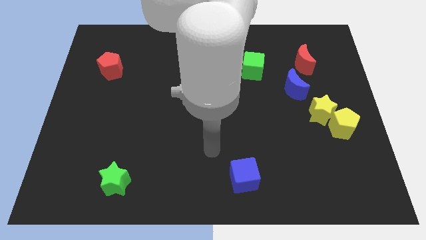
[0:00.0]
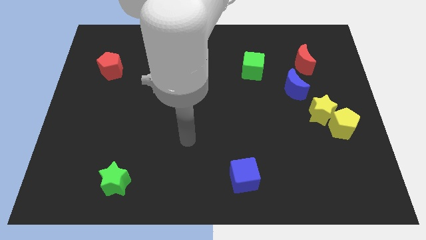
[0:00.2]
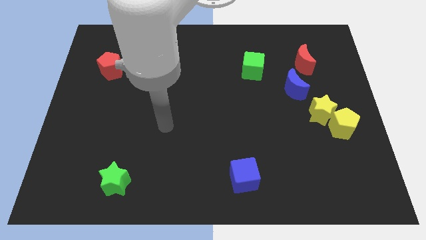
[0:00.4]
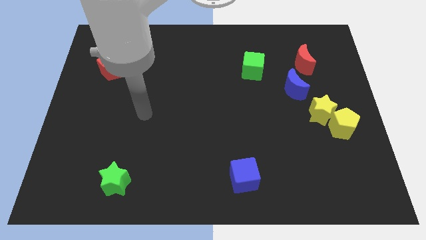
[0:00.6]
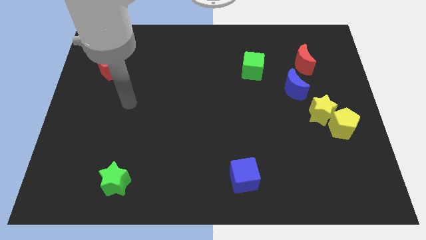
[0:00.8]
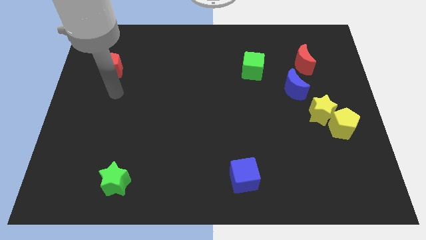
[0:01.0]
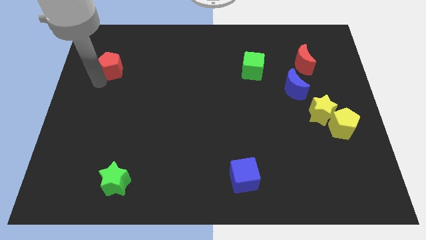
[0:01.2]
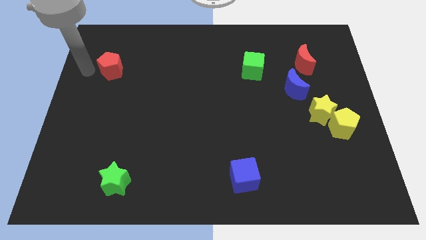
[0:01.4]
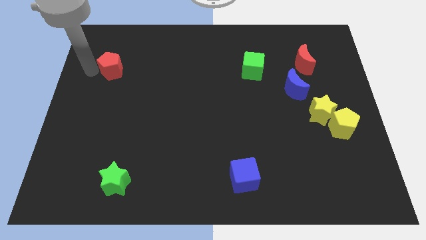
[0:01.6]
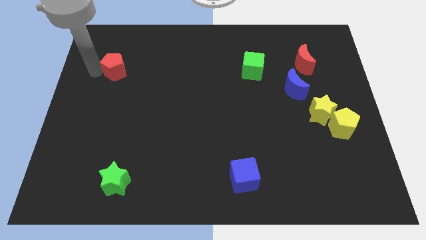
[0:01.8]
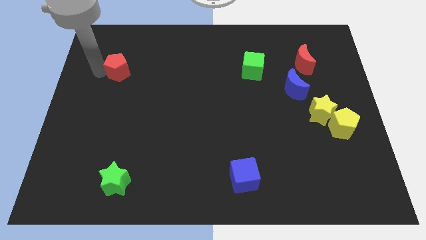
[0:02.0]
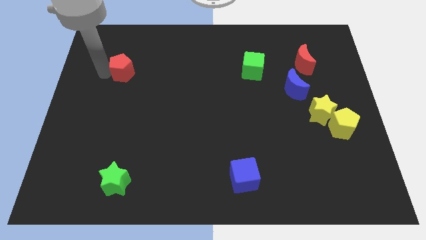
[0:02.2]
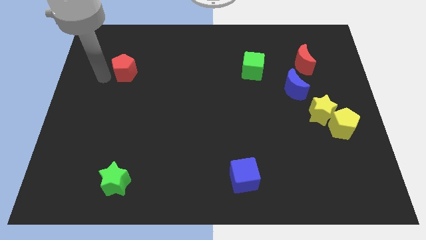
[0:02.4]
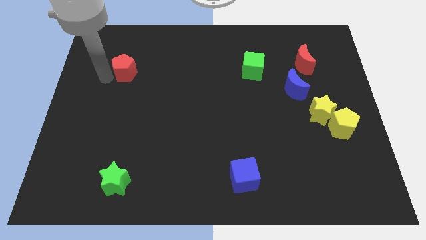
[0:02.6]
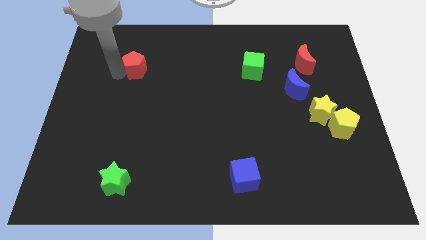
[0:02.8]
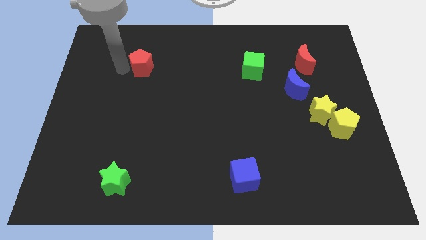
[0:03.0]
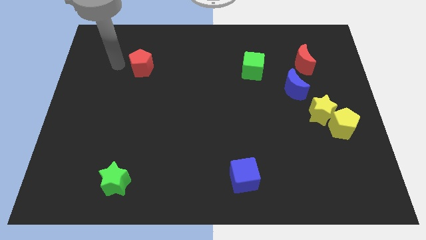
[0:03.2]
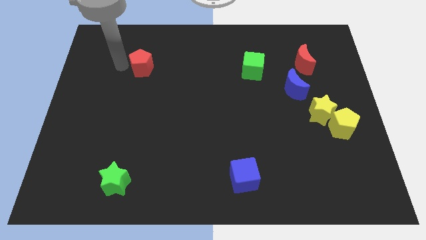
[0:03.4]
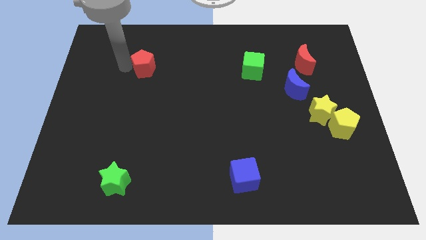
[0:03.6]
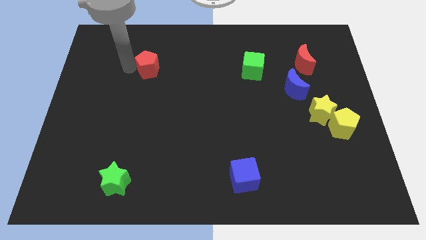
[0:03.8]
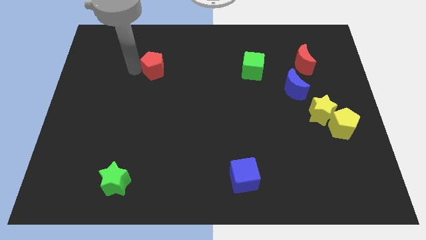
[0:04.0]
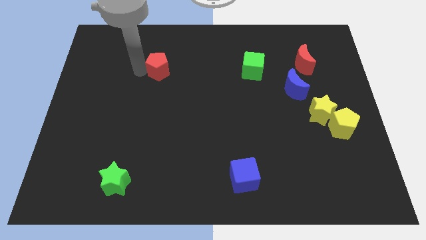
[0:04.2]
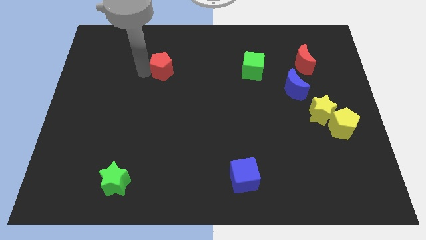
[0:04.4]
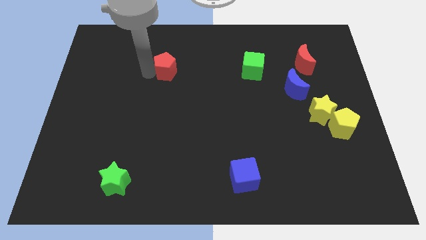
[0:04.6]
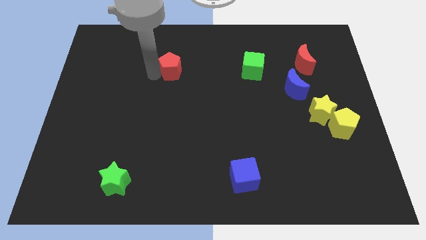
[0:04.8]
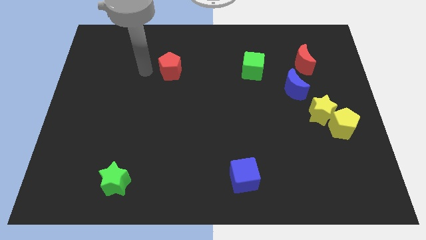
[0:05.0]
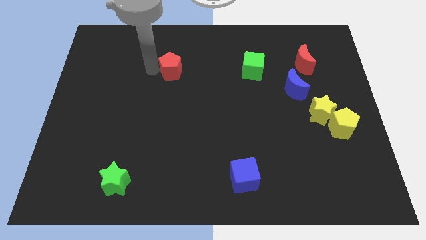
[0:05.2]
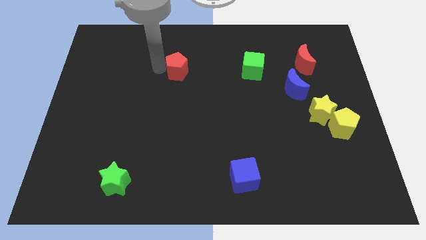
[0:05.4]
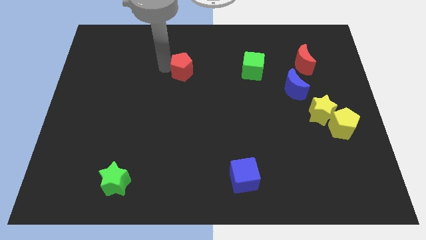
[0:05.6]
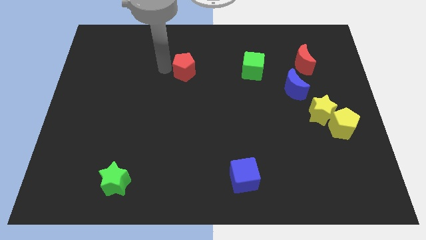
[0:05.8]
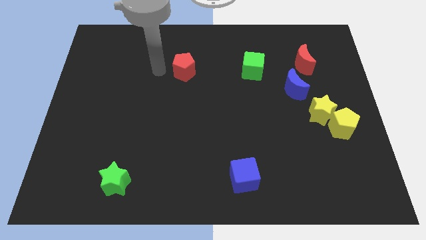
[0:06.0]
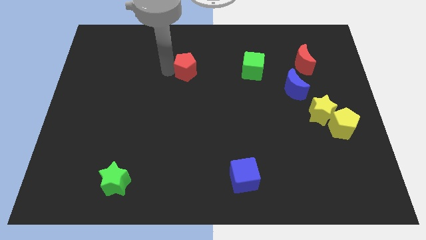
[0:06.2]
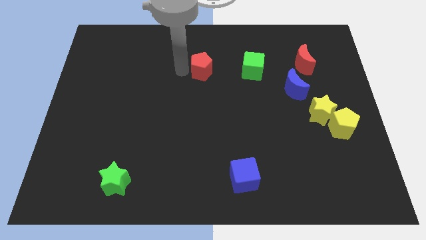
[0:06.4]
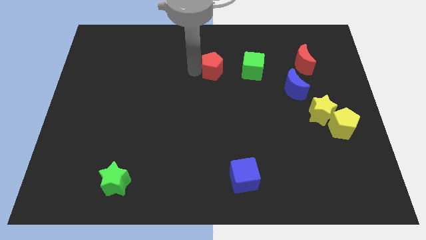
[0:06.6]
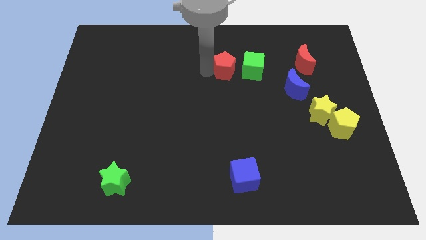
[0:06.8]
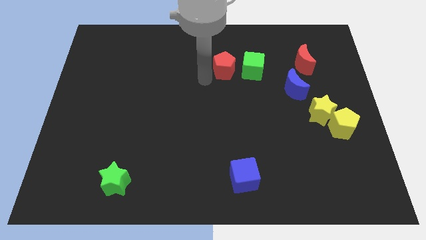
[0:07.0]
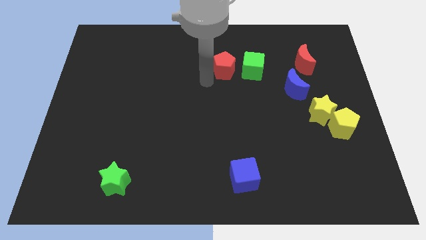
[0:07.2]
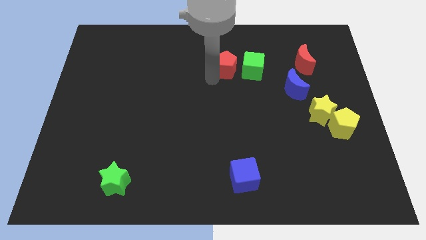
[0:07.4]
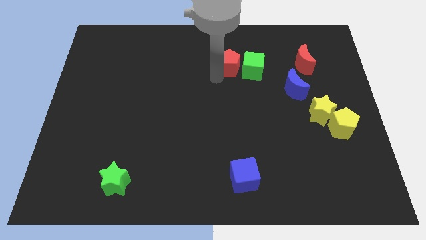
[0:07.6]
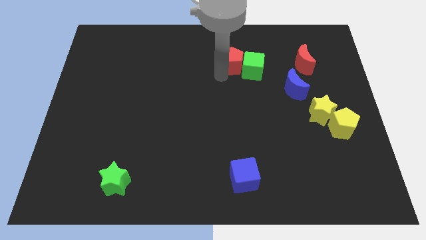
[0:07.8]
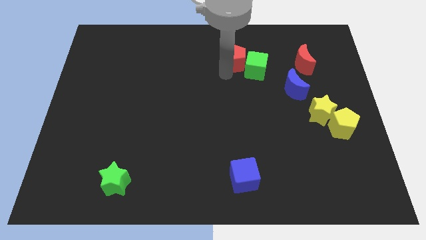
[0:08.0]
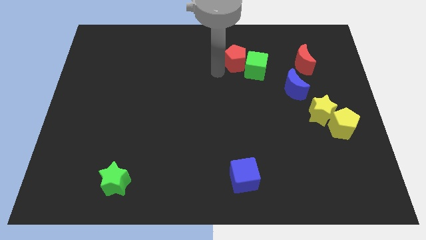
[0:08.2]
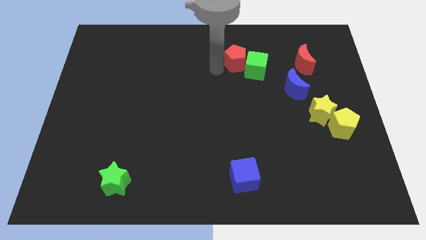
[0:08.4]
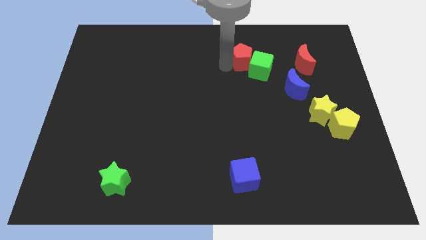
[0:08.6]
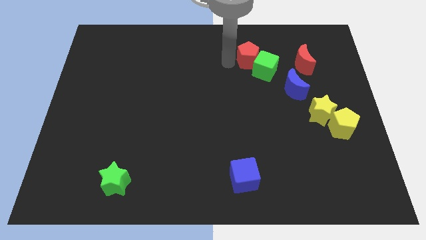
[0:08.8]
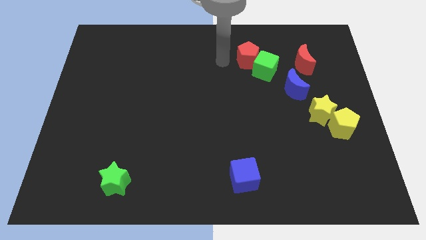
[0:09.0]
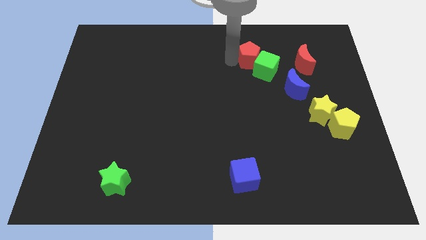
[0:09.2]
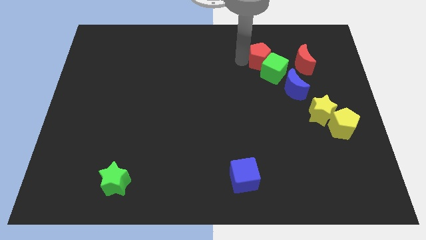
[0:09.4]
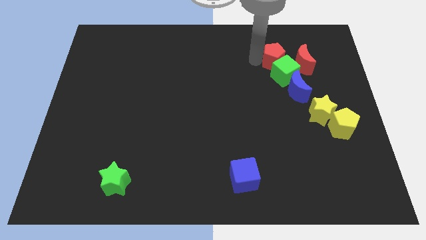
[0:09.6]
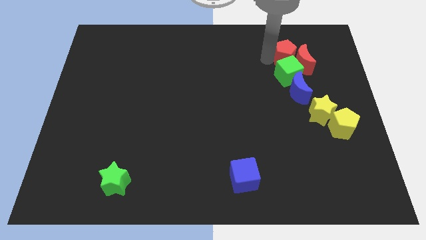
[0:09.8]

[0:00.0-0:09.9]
push the red pentagon to the red moon

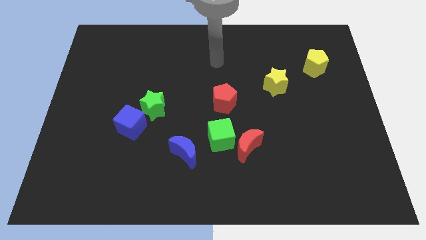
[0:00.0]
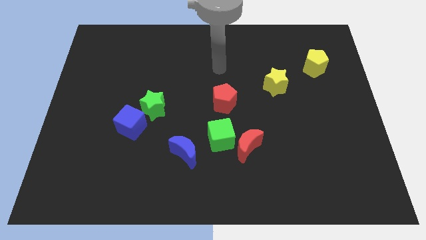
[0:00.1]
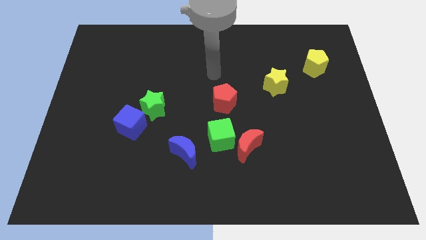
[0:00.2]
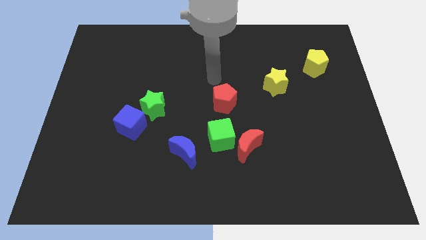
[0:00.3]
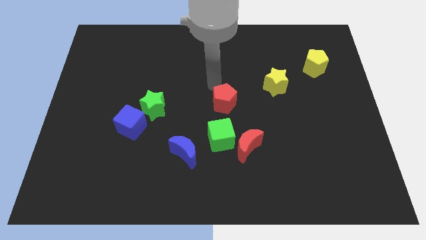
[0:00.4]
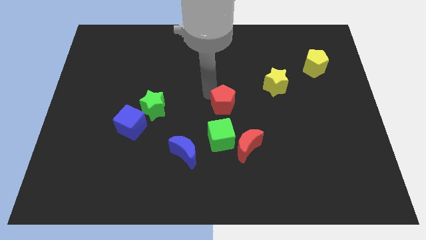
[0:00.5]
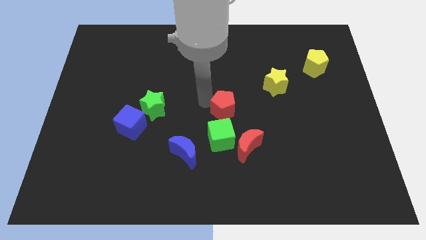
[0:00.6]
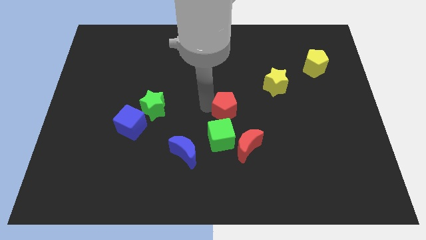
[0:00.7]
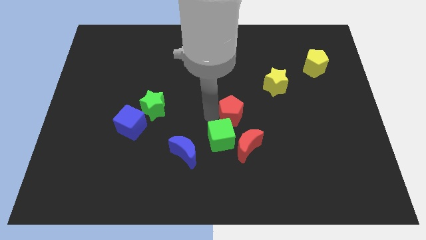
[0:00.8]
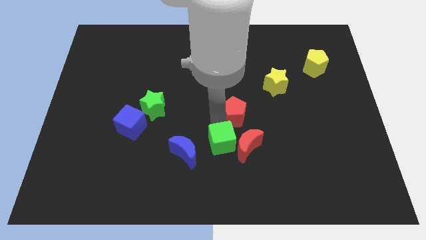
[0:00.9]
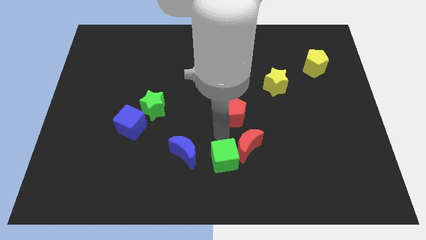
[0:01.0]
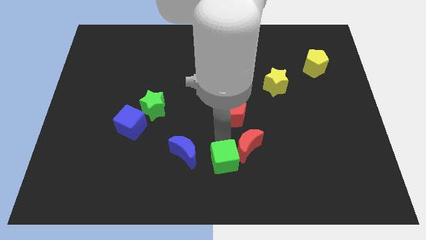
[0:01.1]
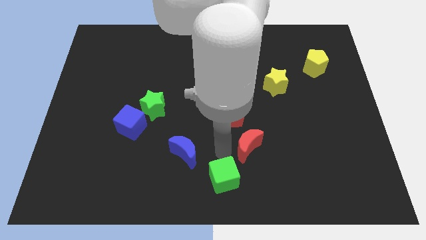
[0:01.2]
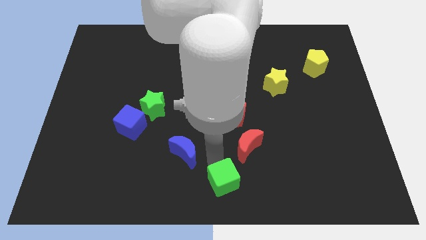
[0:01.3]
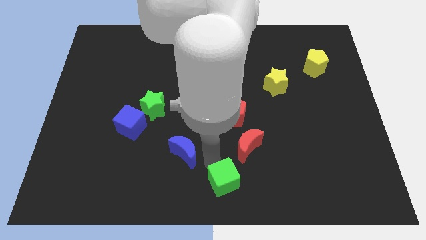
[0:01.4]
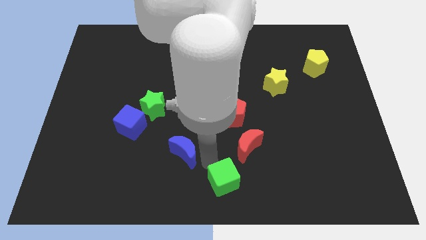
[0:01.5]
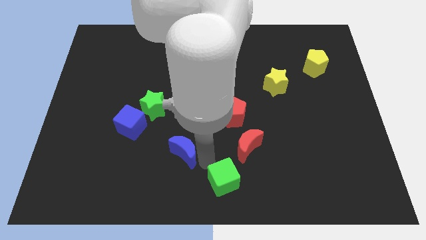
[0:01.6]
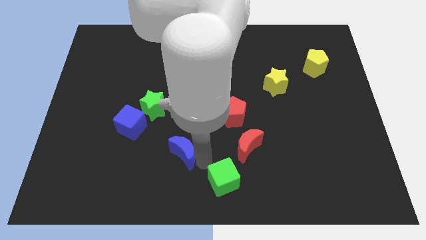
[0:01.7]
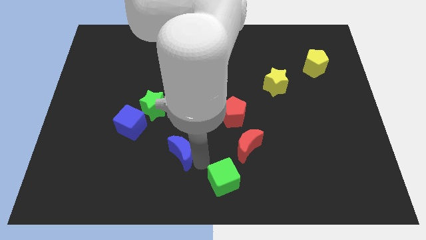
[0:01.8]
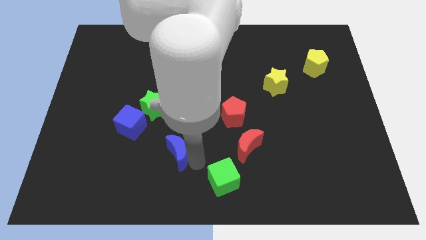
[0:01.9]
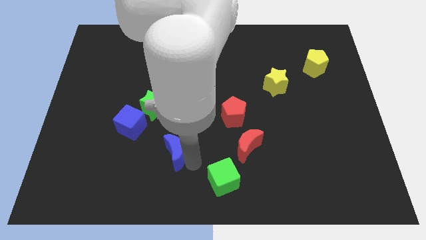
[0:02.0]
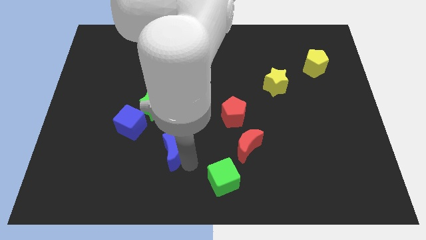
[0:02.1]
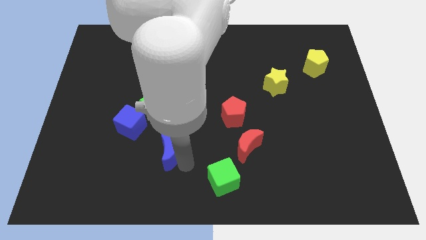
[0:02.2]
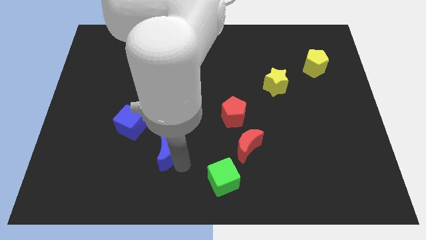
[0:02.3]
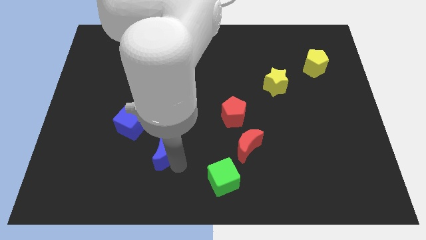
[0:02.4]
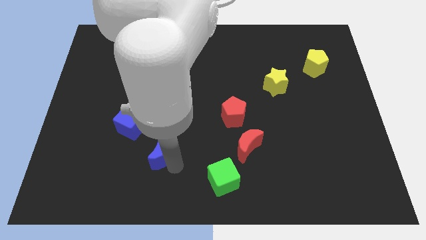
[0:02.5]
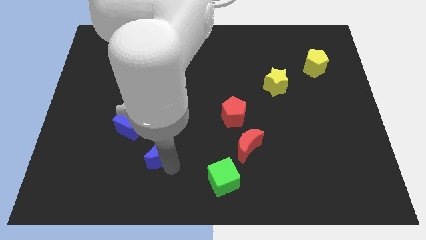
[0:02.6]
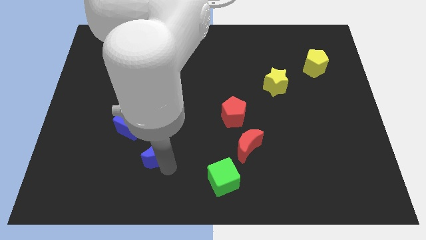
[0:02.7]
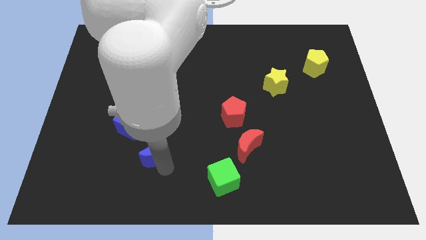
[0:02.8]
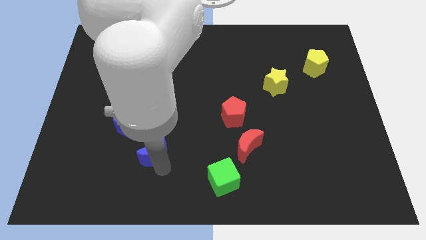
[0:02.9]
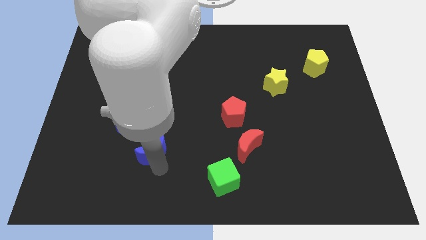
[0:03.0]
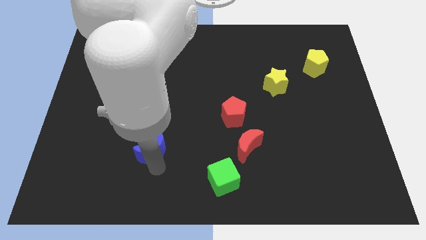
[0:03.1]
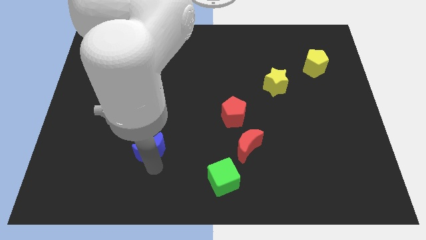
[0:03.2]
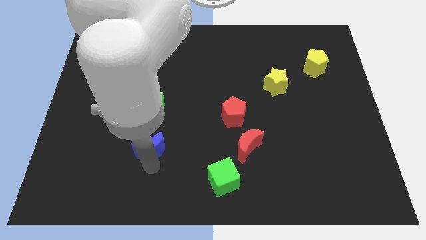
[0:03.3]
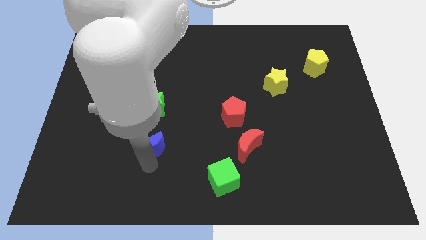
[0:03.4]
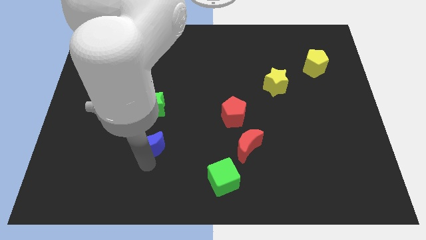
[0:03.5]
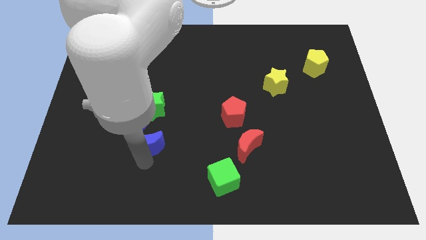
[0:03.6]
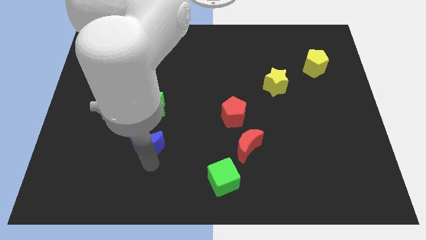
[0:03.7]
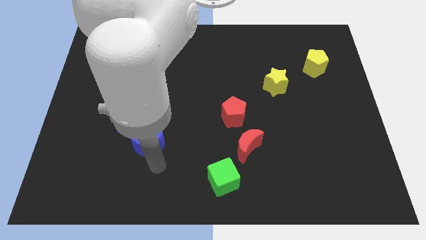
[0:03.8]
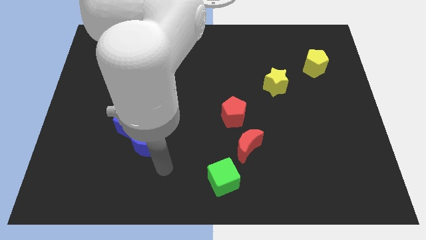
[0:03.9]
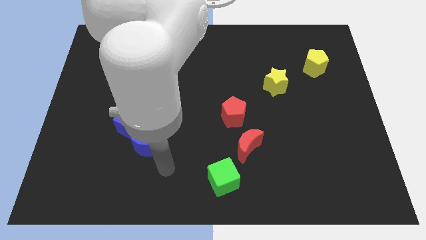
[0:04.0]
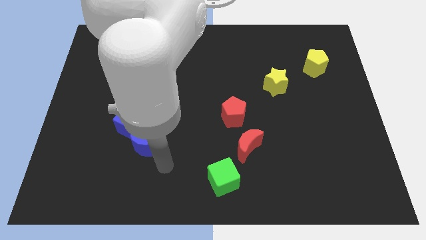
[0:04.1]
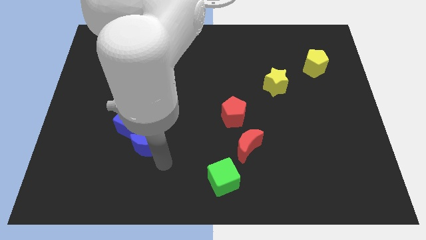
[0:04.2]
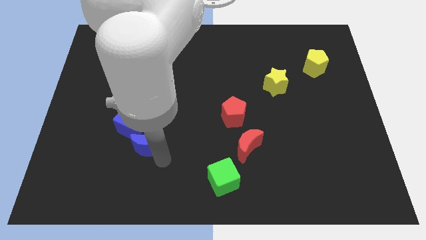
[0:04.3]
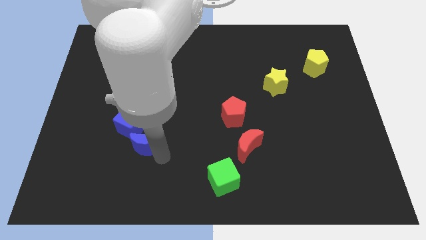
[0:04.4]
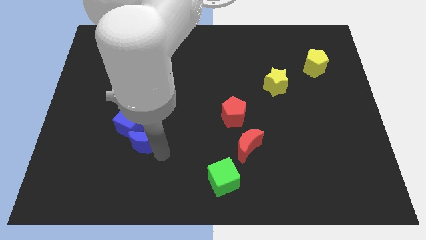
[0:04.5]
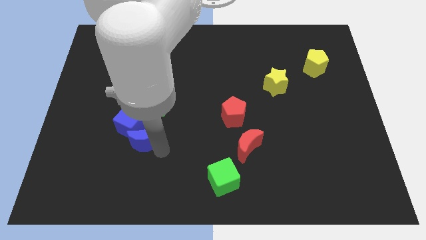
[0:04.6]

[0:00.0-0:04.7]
move the blue moon to the blue cube
